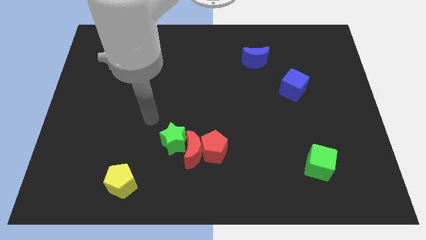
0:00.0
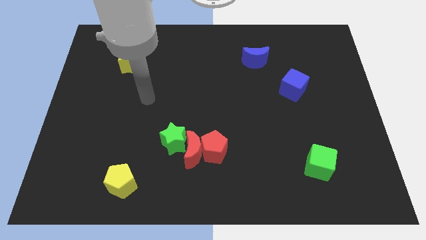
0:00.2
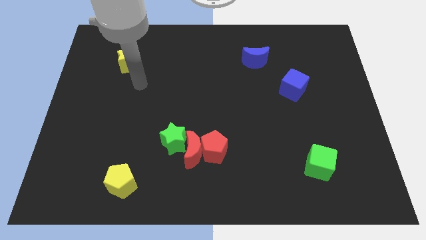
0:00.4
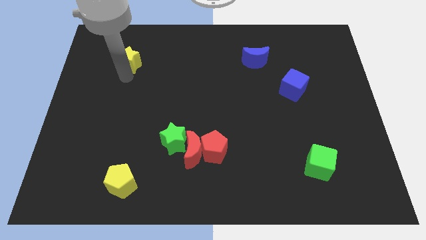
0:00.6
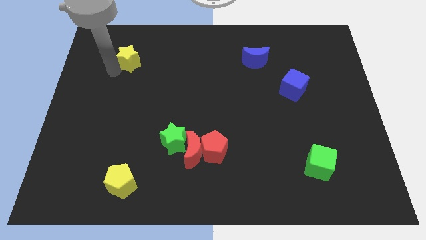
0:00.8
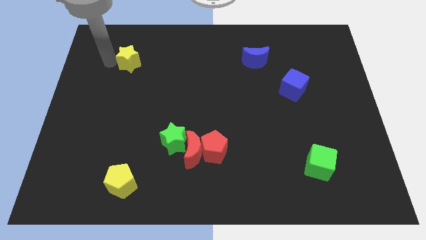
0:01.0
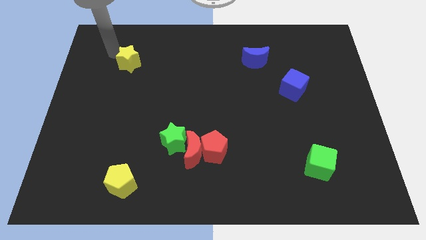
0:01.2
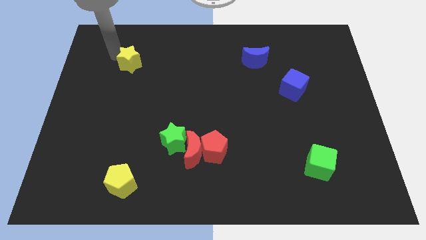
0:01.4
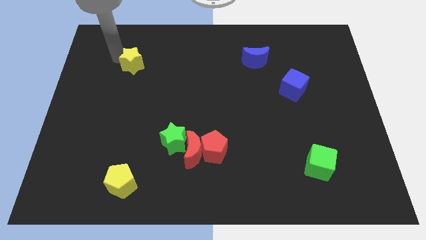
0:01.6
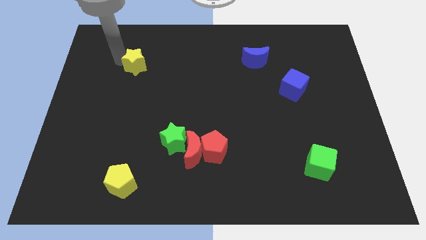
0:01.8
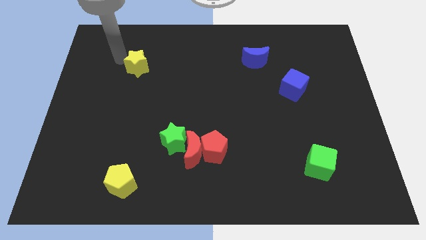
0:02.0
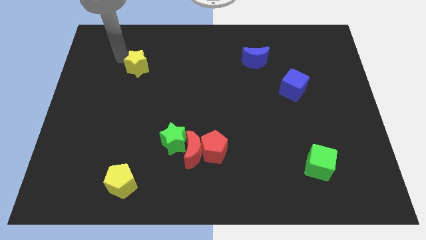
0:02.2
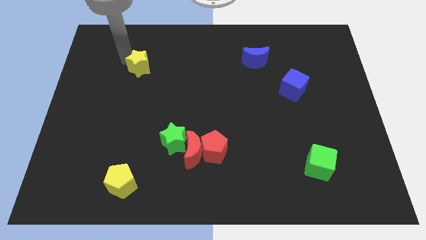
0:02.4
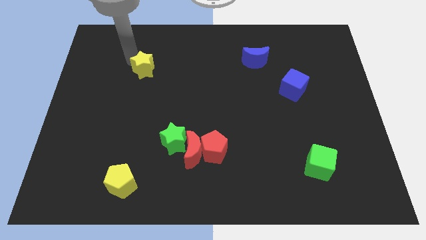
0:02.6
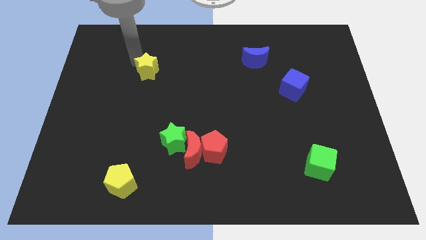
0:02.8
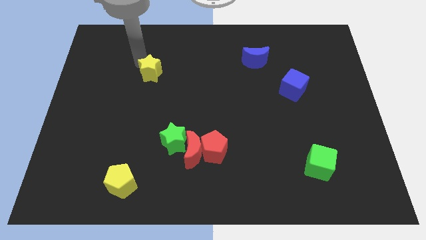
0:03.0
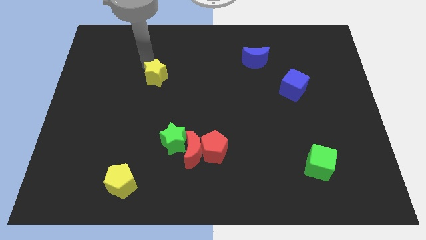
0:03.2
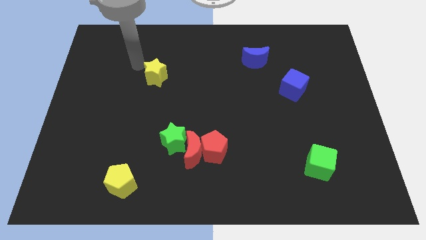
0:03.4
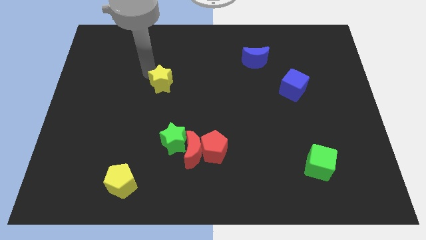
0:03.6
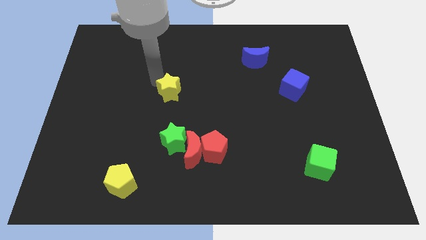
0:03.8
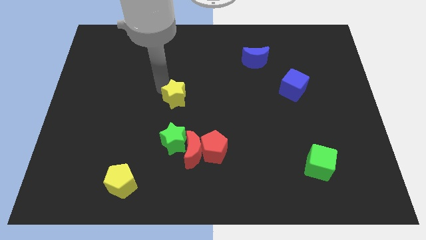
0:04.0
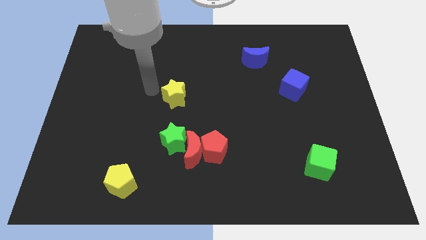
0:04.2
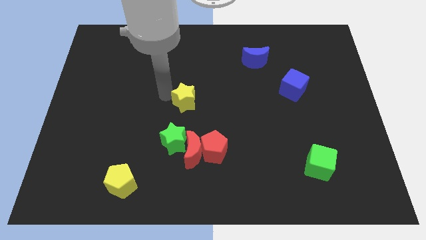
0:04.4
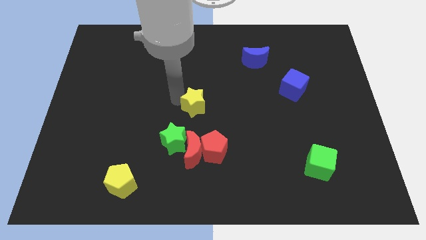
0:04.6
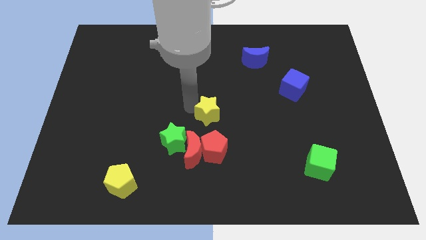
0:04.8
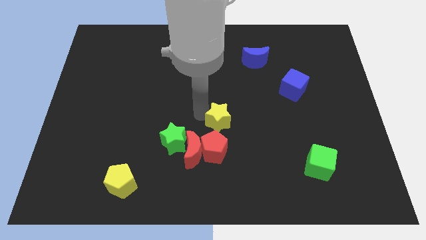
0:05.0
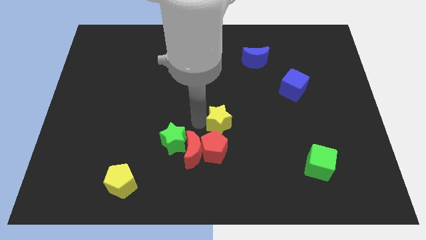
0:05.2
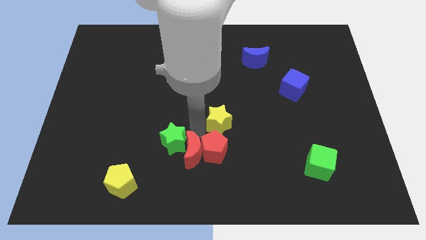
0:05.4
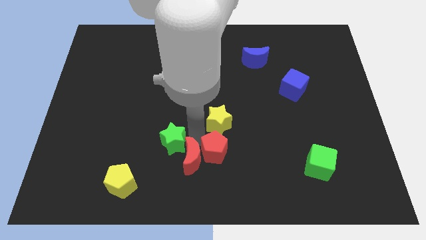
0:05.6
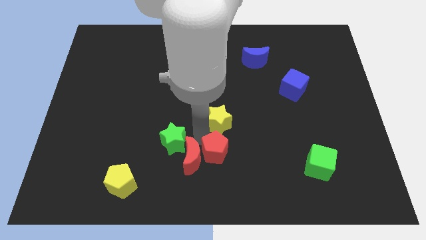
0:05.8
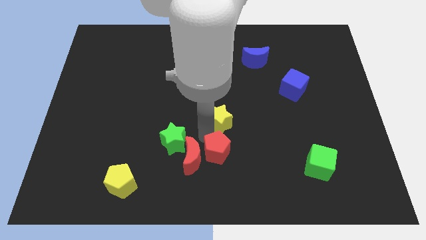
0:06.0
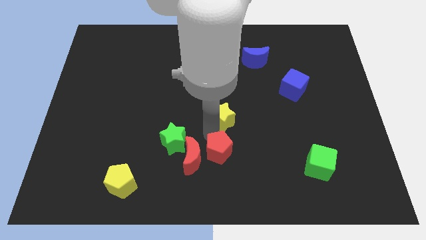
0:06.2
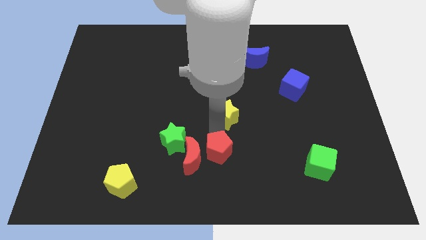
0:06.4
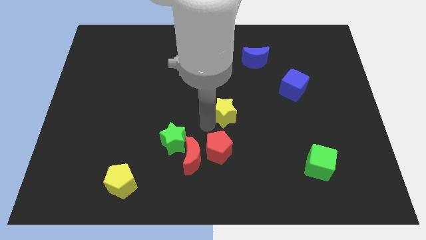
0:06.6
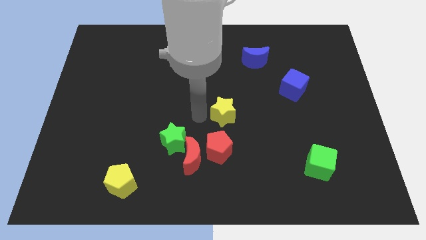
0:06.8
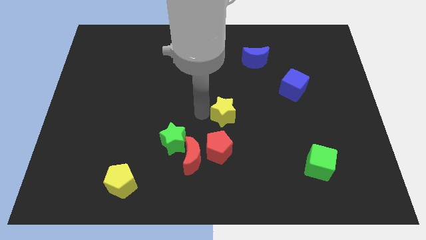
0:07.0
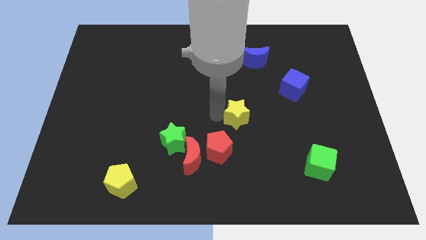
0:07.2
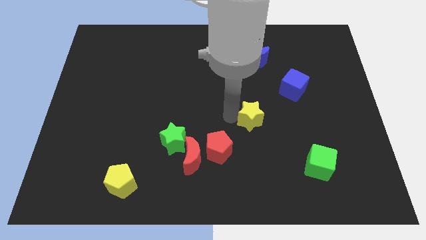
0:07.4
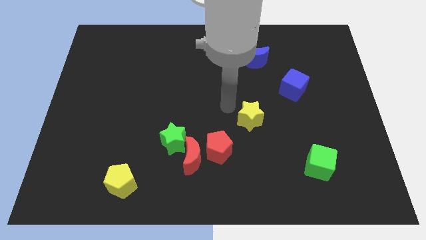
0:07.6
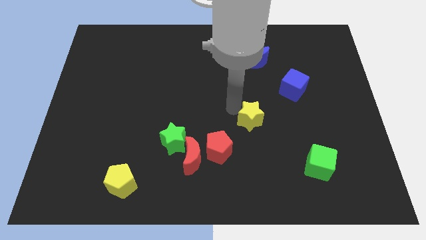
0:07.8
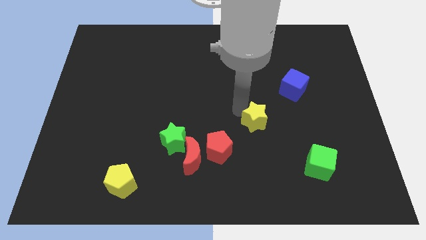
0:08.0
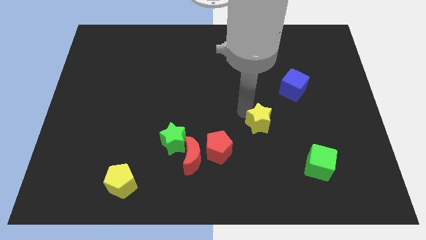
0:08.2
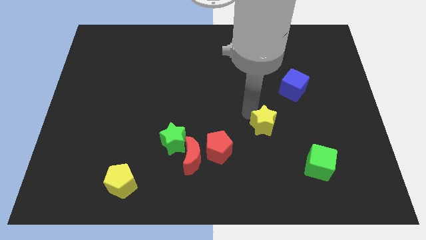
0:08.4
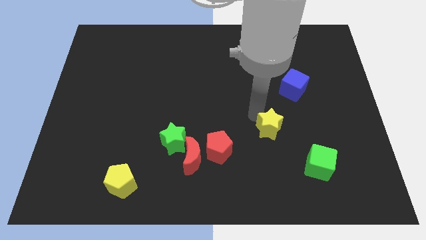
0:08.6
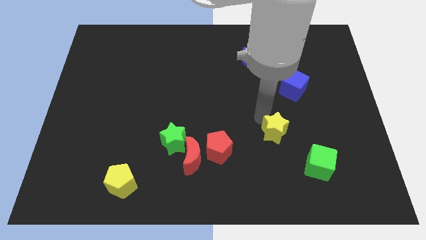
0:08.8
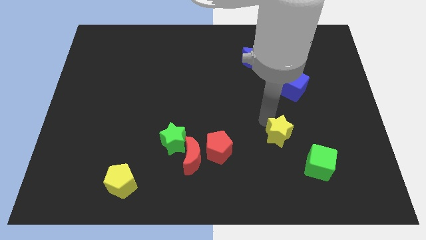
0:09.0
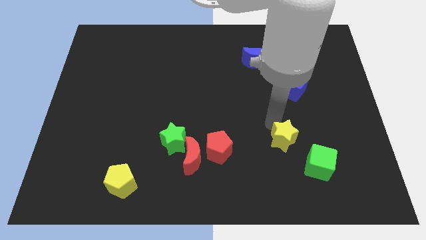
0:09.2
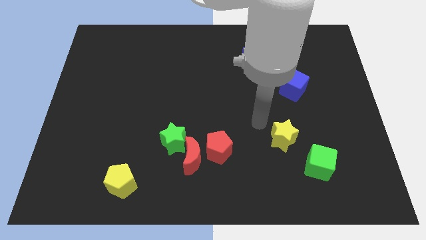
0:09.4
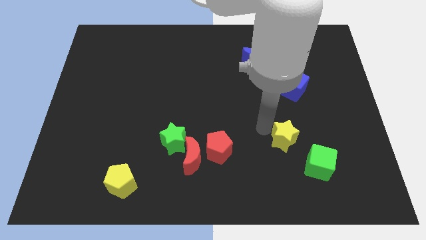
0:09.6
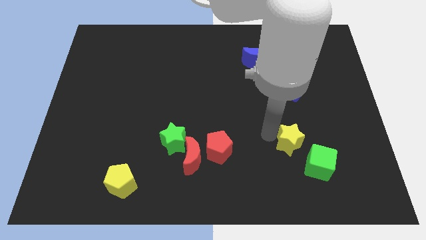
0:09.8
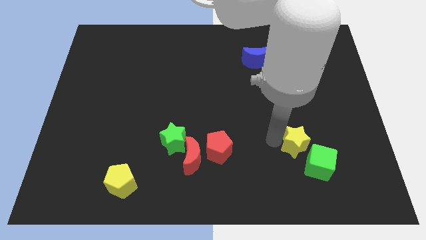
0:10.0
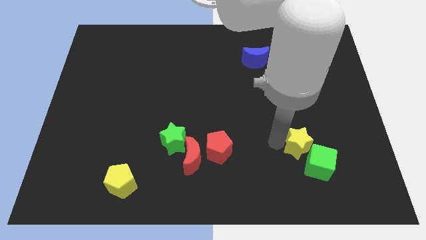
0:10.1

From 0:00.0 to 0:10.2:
put the yellow star to the green cube
